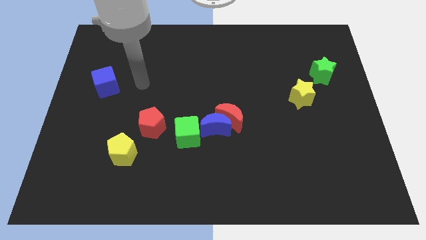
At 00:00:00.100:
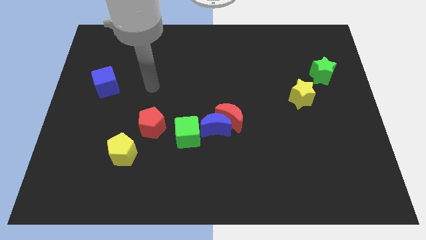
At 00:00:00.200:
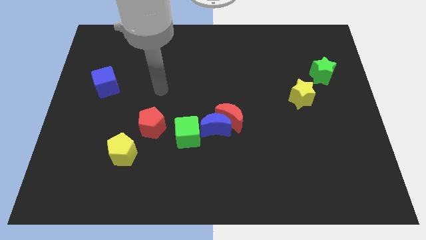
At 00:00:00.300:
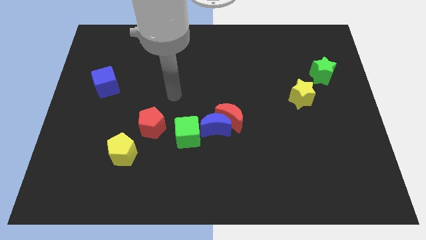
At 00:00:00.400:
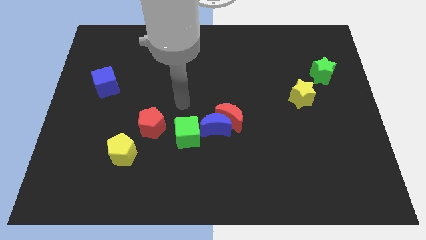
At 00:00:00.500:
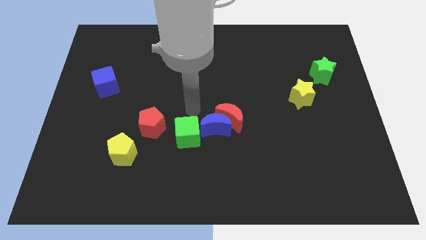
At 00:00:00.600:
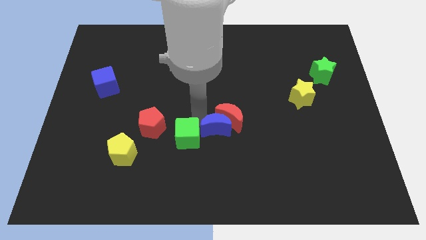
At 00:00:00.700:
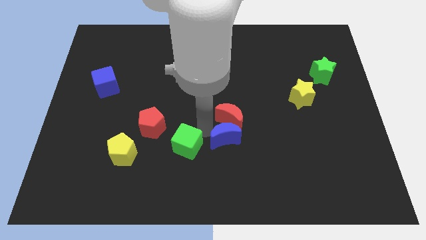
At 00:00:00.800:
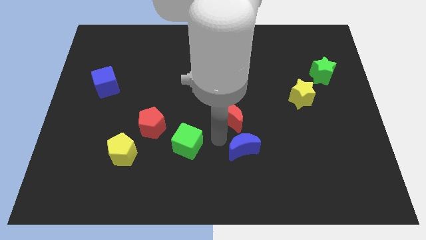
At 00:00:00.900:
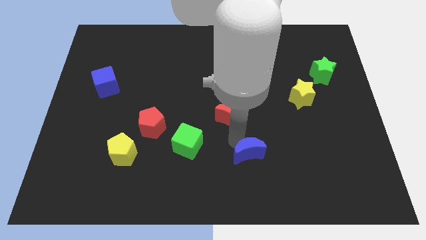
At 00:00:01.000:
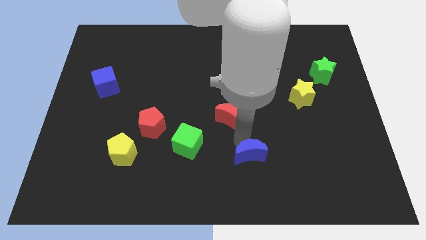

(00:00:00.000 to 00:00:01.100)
move the red moon away from the blue moon

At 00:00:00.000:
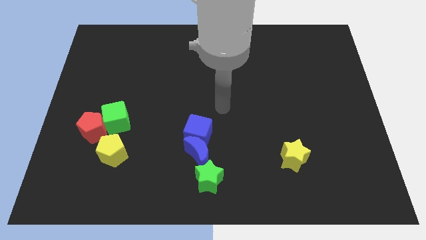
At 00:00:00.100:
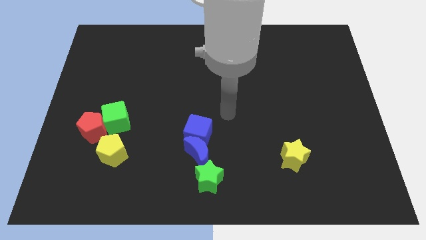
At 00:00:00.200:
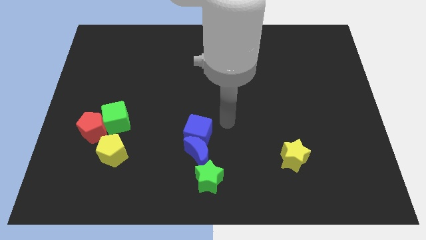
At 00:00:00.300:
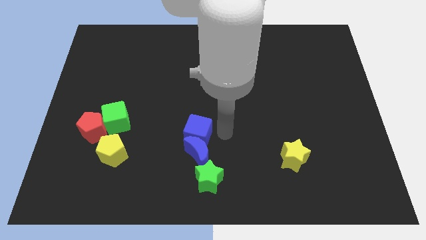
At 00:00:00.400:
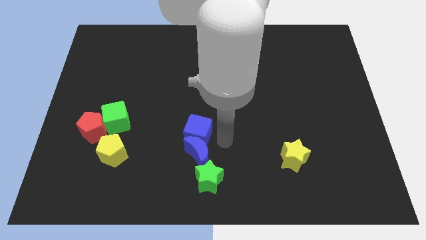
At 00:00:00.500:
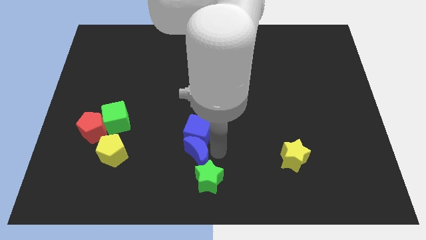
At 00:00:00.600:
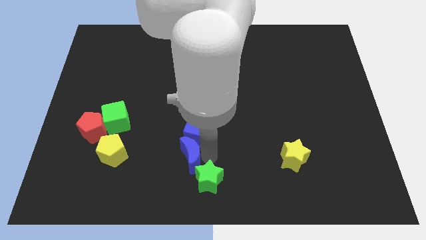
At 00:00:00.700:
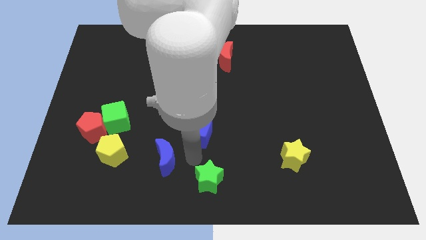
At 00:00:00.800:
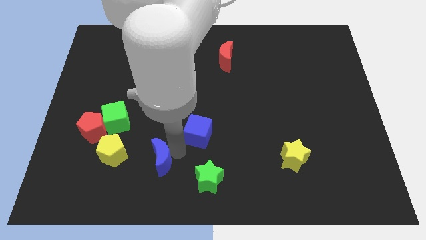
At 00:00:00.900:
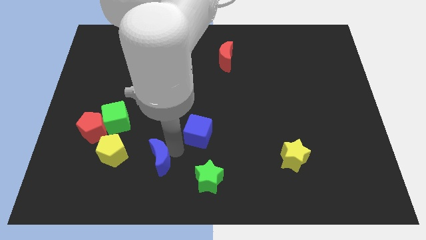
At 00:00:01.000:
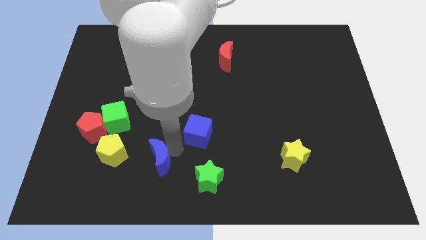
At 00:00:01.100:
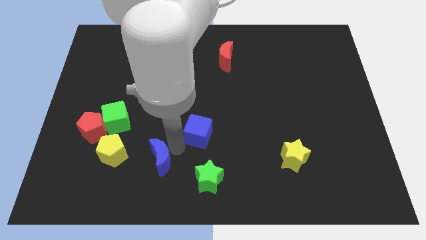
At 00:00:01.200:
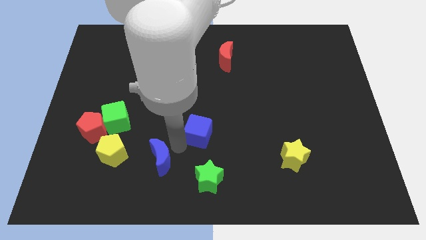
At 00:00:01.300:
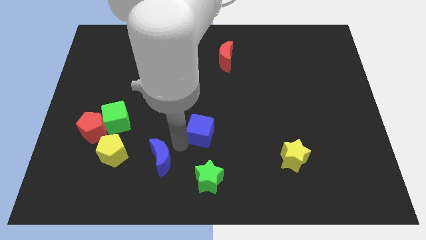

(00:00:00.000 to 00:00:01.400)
pull the blue cube apart from the blue moon

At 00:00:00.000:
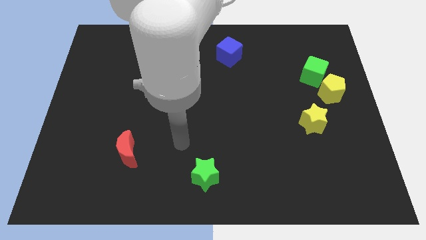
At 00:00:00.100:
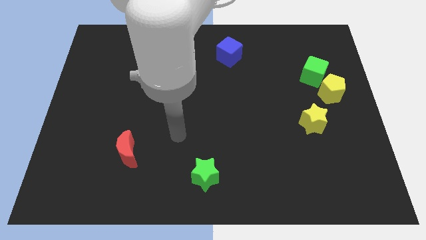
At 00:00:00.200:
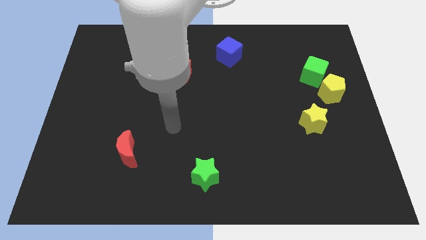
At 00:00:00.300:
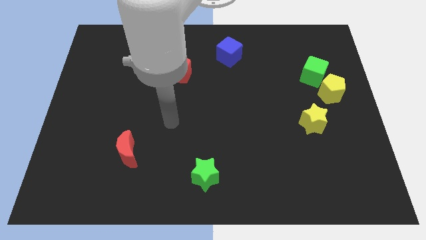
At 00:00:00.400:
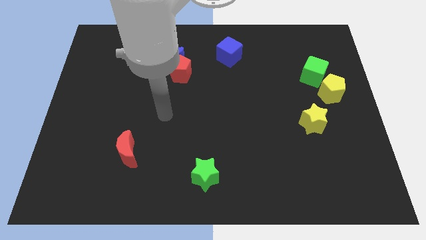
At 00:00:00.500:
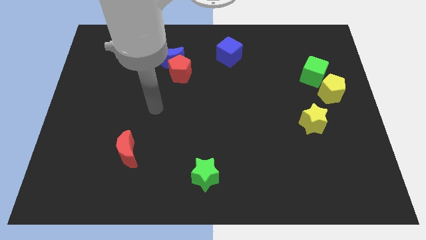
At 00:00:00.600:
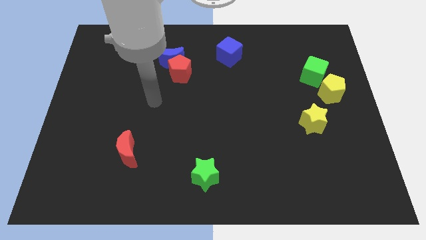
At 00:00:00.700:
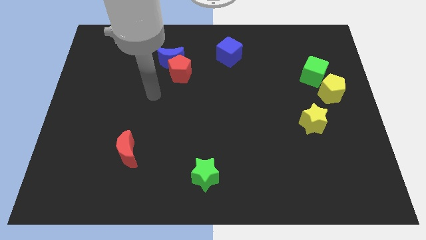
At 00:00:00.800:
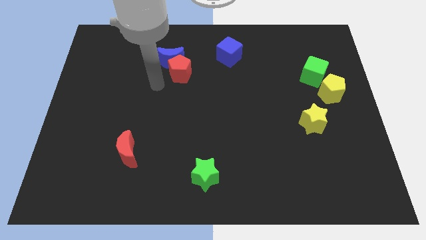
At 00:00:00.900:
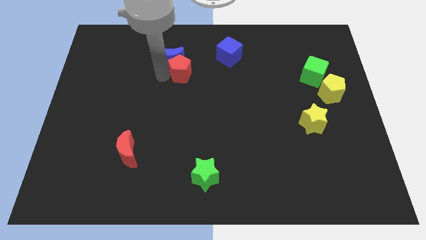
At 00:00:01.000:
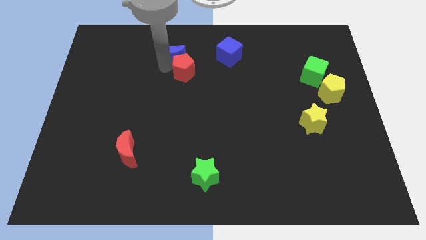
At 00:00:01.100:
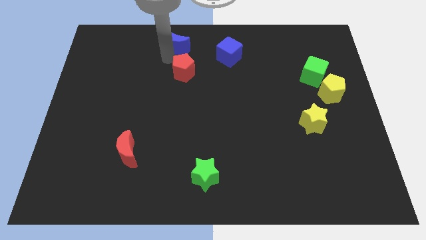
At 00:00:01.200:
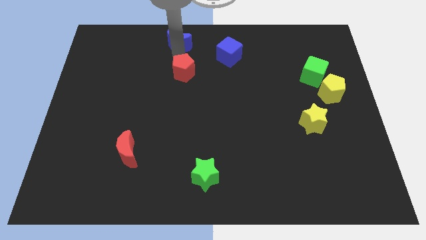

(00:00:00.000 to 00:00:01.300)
move the red pentagon away from the blue moon

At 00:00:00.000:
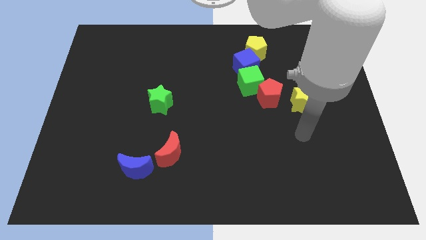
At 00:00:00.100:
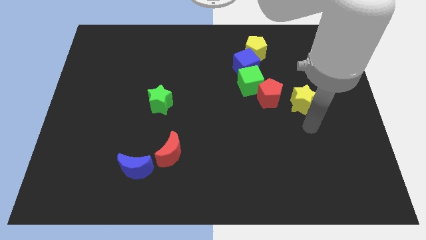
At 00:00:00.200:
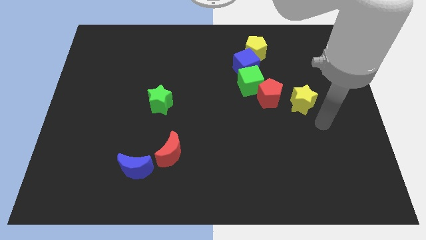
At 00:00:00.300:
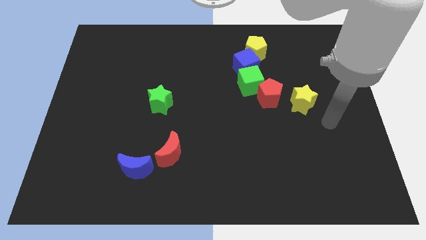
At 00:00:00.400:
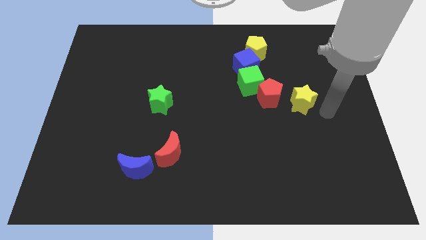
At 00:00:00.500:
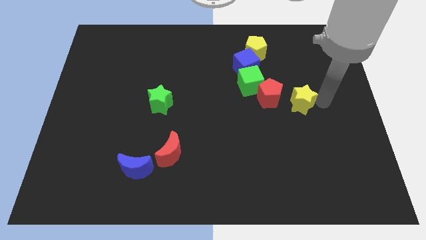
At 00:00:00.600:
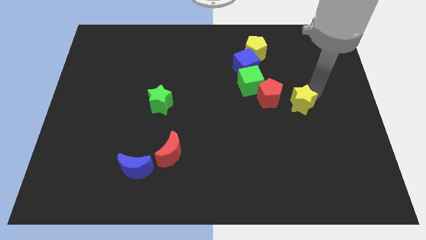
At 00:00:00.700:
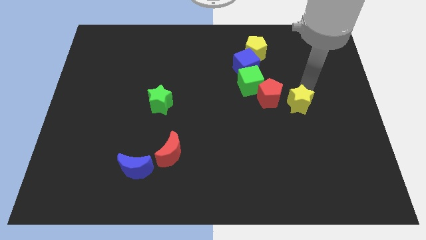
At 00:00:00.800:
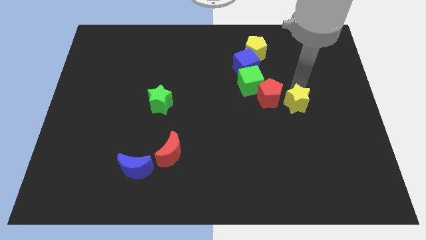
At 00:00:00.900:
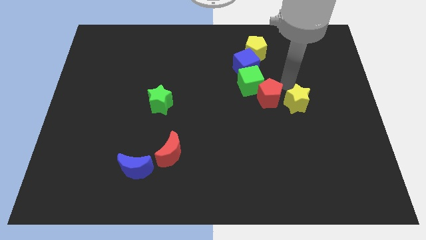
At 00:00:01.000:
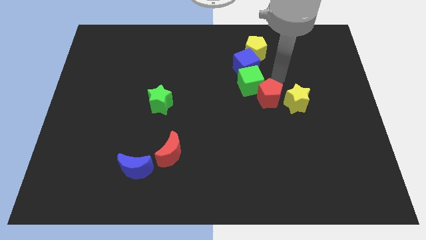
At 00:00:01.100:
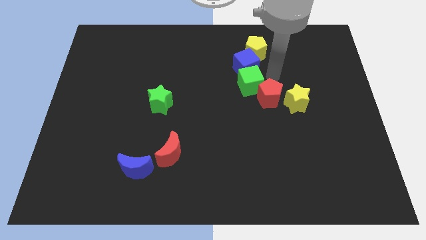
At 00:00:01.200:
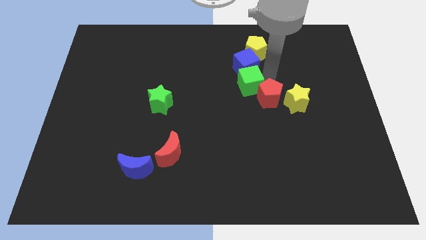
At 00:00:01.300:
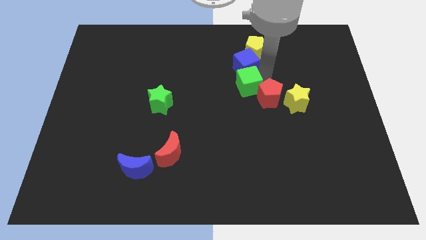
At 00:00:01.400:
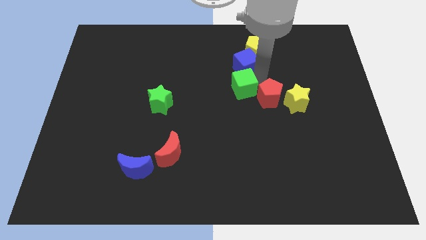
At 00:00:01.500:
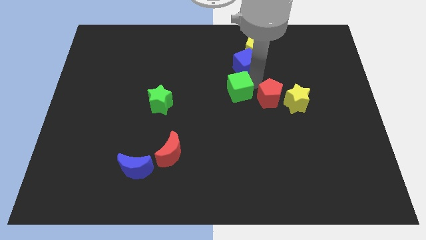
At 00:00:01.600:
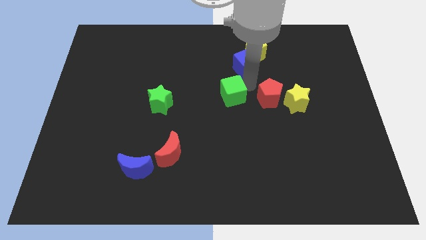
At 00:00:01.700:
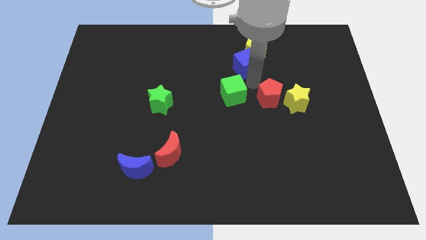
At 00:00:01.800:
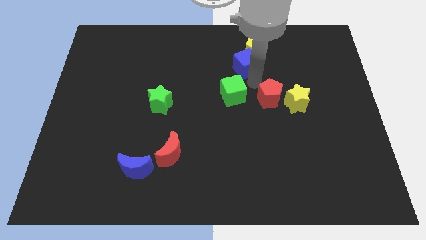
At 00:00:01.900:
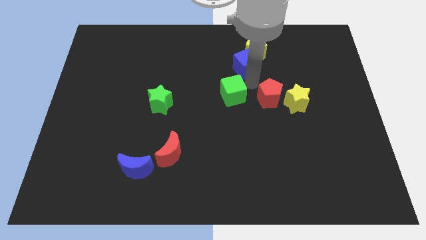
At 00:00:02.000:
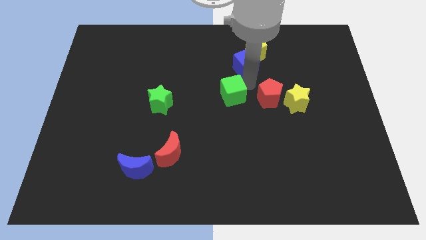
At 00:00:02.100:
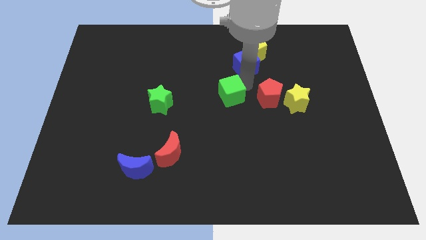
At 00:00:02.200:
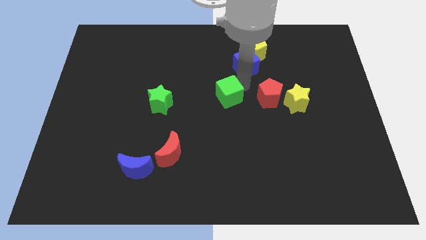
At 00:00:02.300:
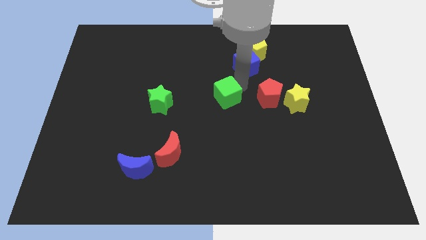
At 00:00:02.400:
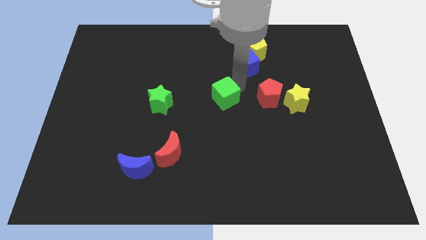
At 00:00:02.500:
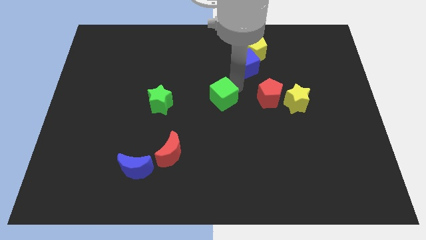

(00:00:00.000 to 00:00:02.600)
separate the green cube from the red pentagon and blue cube

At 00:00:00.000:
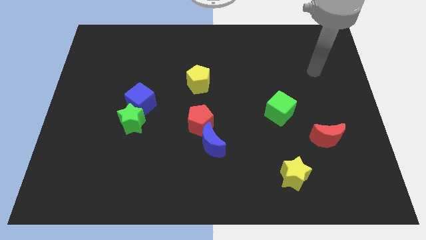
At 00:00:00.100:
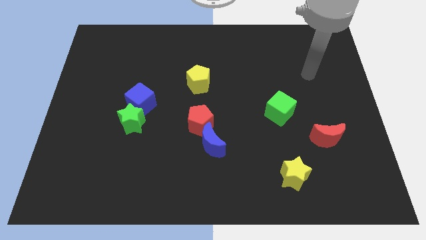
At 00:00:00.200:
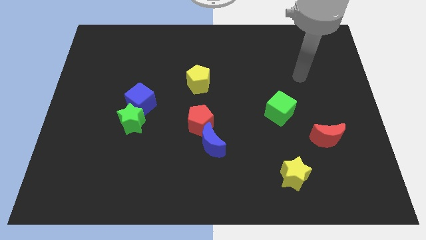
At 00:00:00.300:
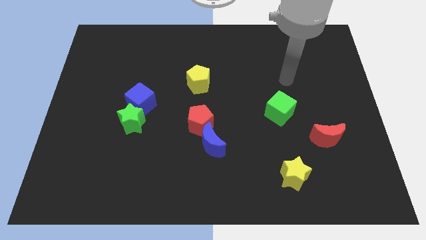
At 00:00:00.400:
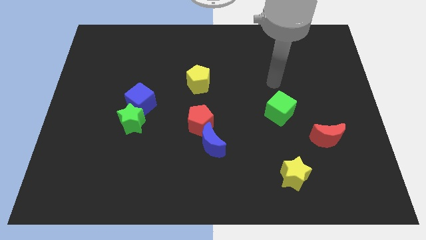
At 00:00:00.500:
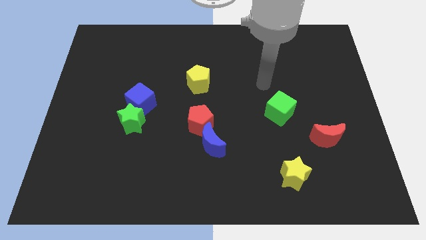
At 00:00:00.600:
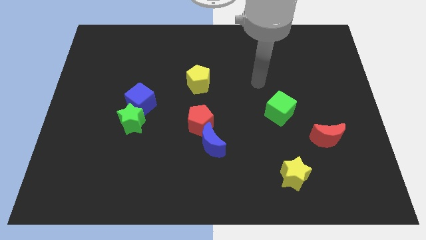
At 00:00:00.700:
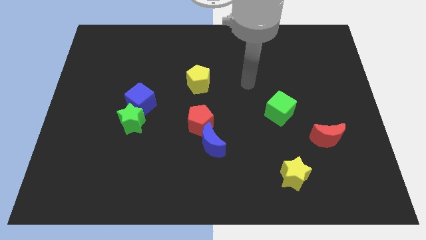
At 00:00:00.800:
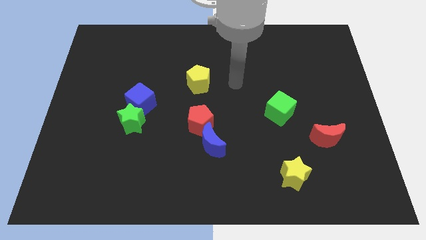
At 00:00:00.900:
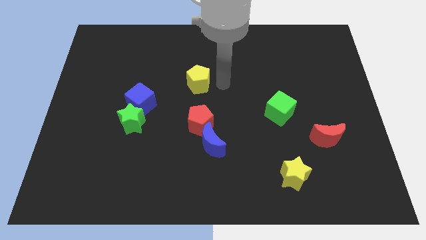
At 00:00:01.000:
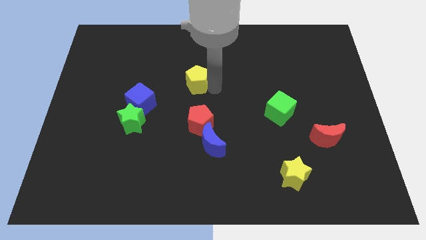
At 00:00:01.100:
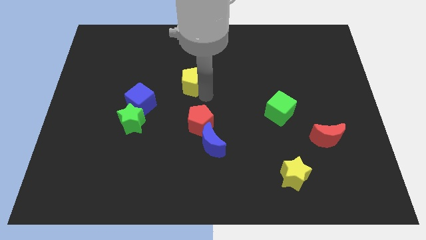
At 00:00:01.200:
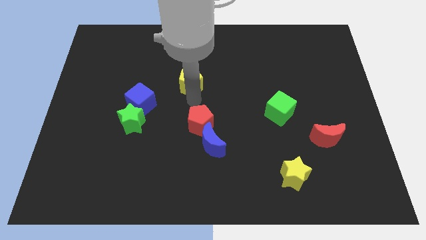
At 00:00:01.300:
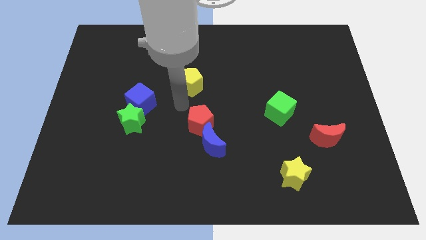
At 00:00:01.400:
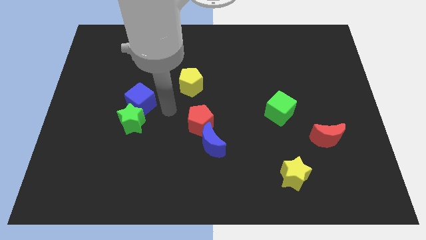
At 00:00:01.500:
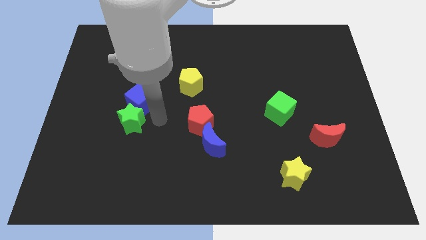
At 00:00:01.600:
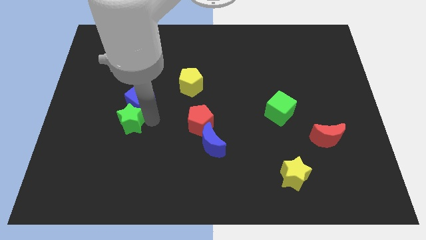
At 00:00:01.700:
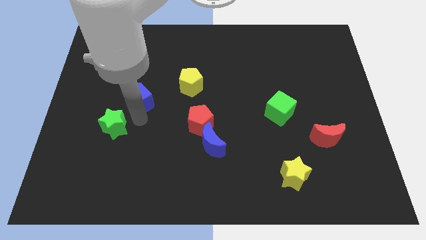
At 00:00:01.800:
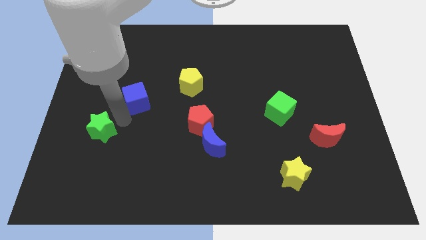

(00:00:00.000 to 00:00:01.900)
separate the blue cube from the green star

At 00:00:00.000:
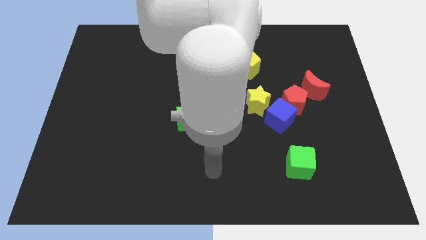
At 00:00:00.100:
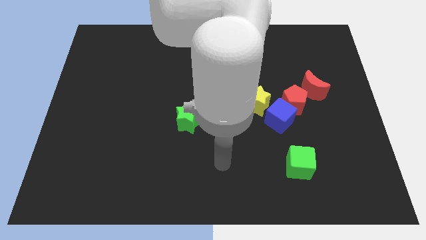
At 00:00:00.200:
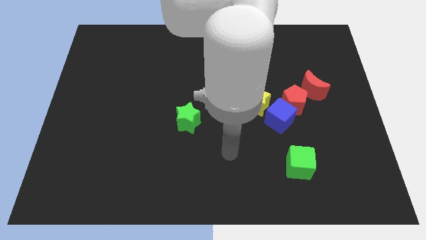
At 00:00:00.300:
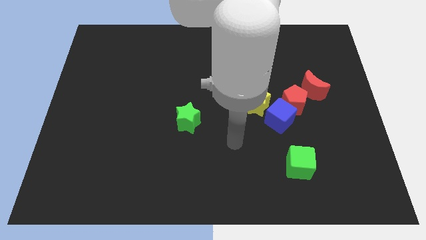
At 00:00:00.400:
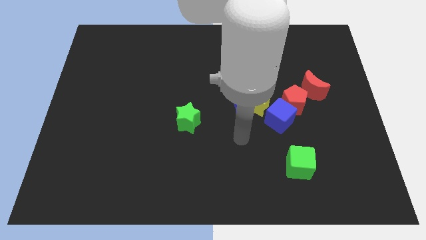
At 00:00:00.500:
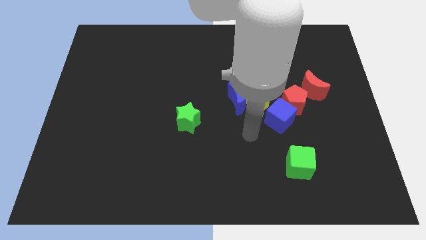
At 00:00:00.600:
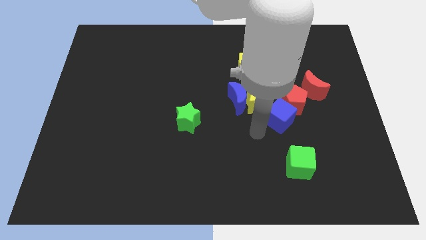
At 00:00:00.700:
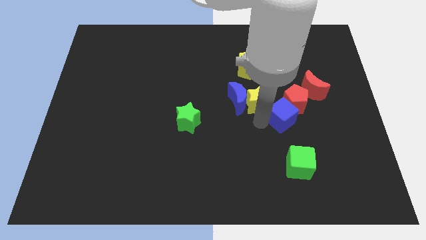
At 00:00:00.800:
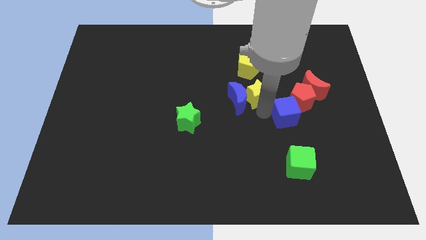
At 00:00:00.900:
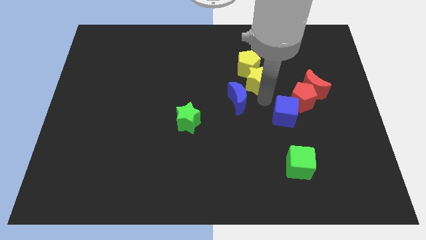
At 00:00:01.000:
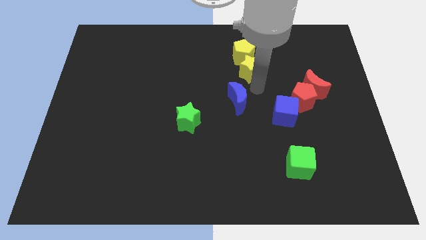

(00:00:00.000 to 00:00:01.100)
separate the blue moon from the yellow star
